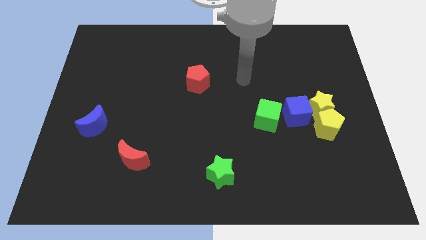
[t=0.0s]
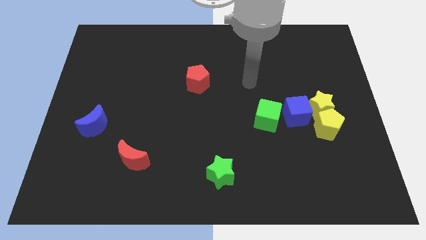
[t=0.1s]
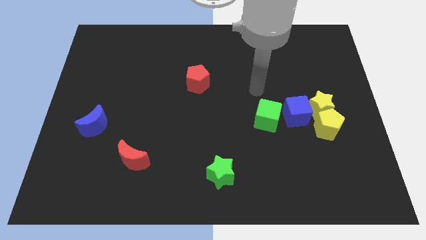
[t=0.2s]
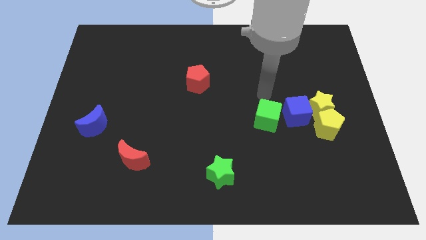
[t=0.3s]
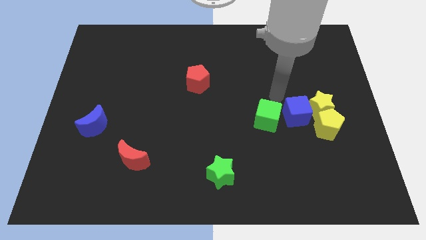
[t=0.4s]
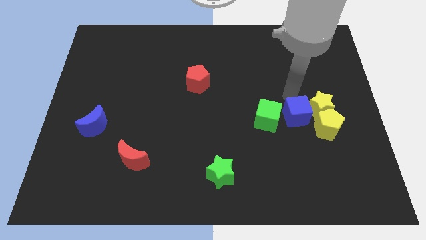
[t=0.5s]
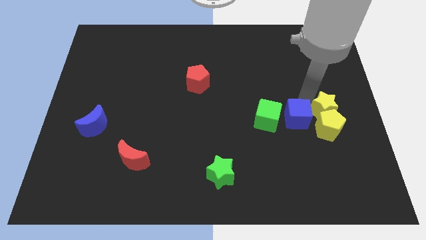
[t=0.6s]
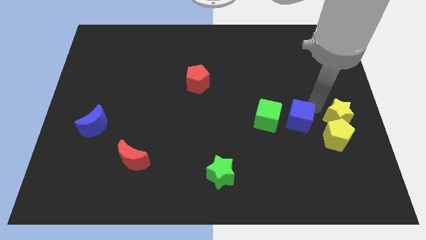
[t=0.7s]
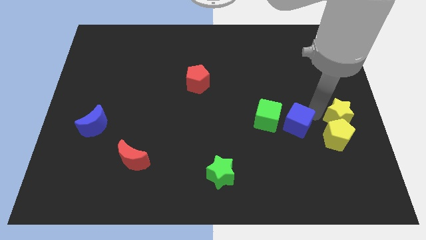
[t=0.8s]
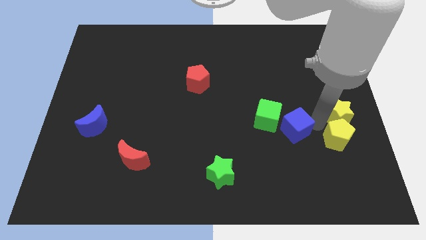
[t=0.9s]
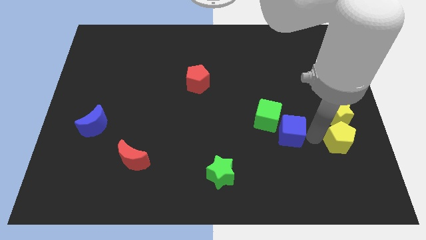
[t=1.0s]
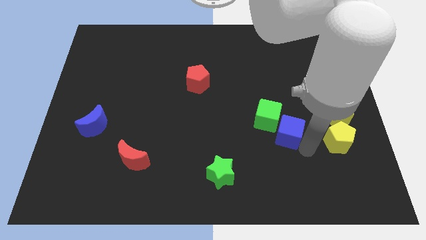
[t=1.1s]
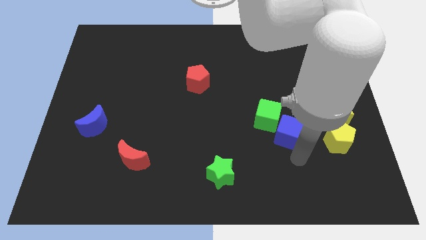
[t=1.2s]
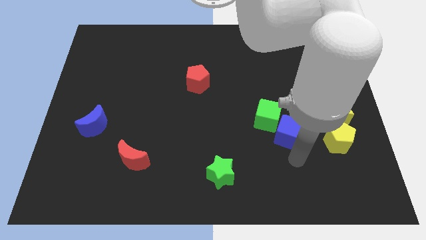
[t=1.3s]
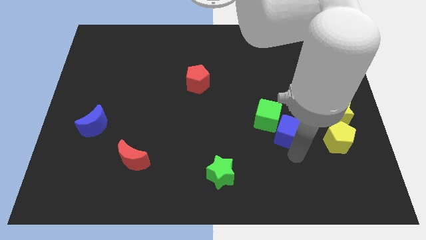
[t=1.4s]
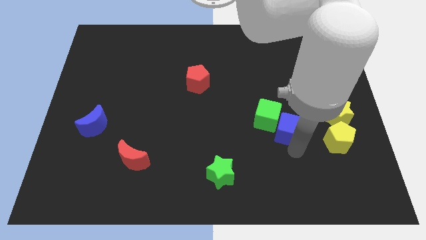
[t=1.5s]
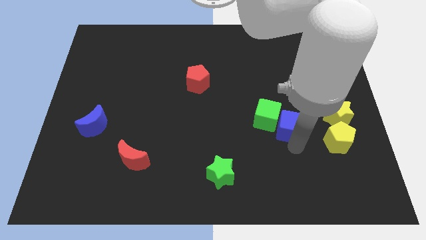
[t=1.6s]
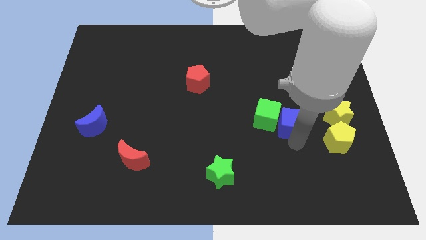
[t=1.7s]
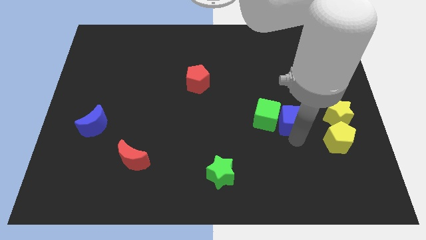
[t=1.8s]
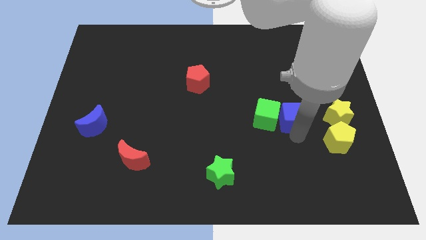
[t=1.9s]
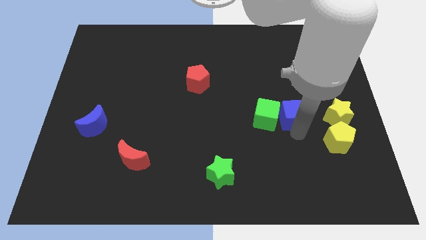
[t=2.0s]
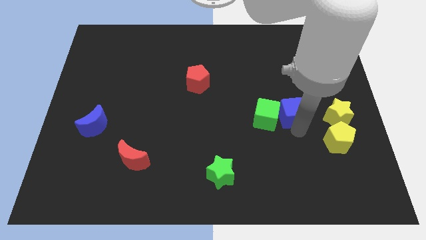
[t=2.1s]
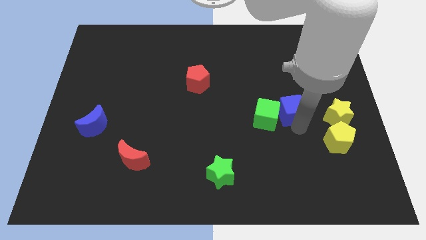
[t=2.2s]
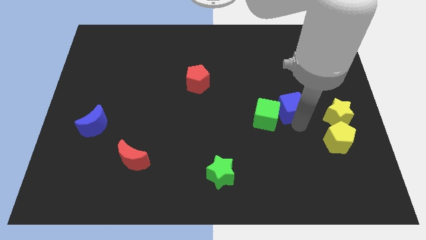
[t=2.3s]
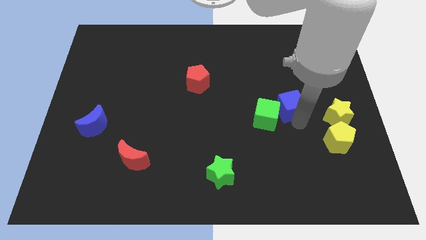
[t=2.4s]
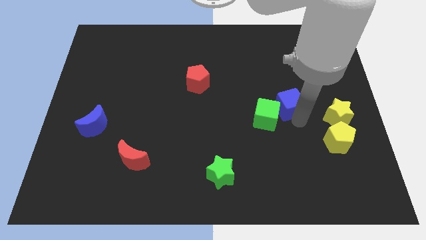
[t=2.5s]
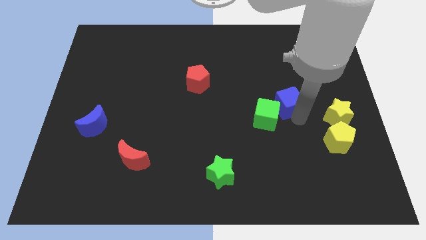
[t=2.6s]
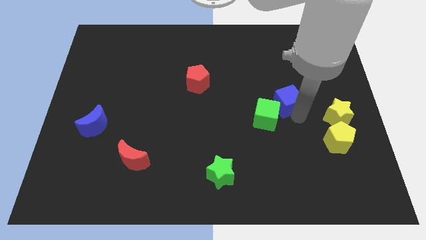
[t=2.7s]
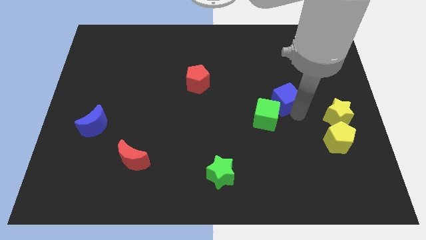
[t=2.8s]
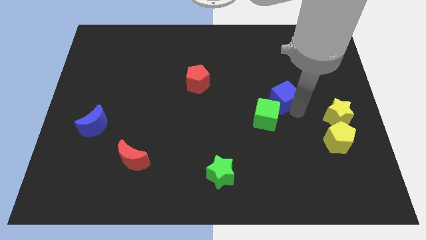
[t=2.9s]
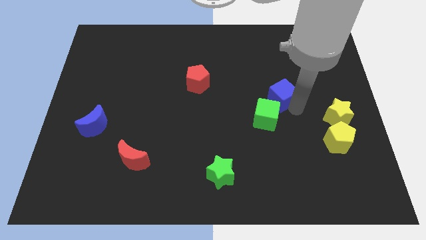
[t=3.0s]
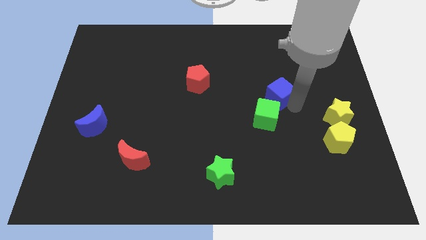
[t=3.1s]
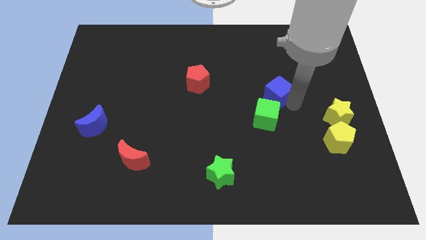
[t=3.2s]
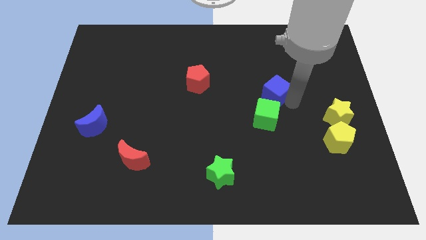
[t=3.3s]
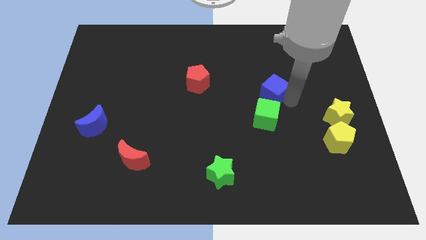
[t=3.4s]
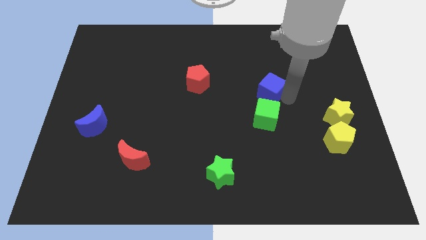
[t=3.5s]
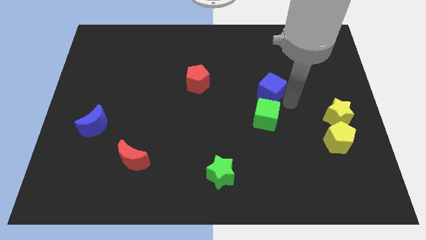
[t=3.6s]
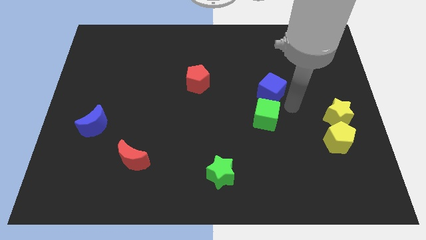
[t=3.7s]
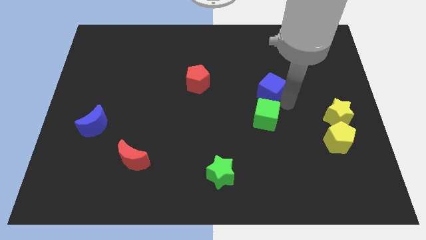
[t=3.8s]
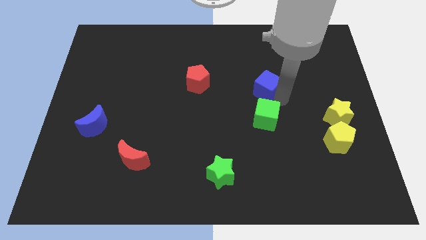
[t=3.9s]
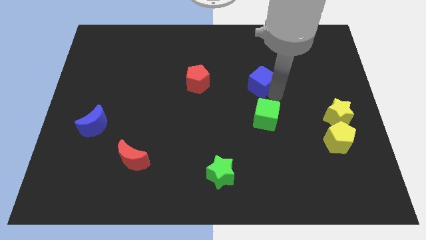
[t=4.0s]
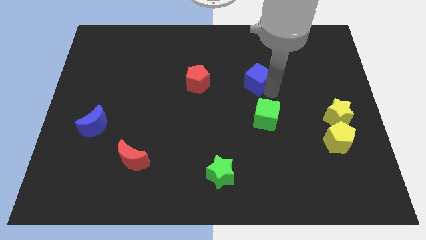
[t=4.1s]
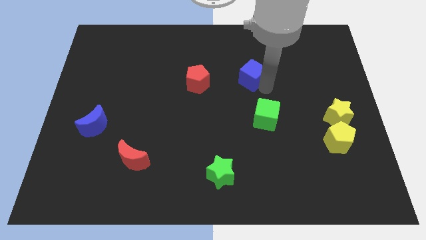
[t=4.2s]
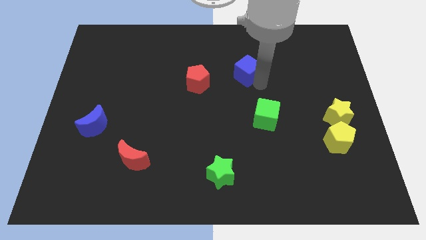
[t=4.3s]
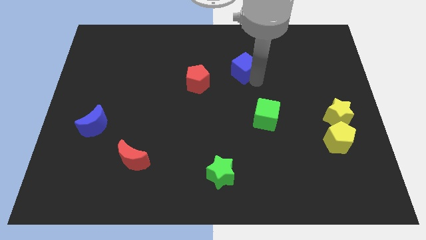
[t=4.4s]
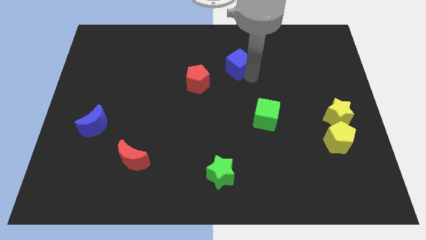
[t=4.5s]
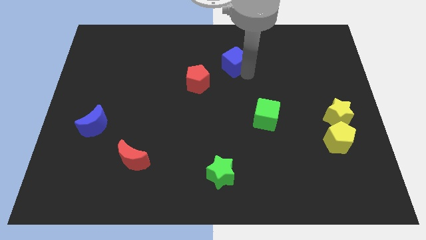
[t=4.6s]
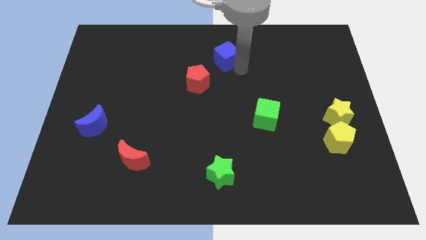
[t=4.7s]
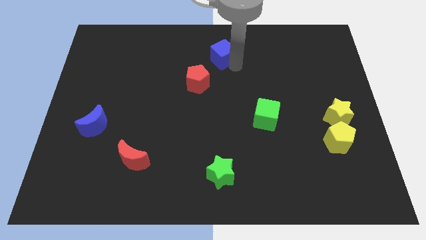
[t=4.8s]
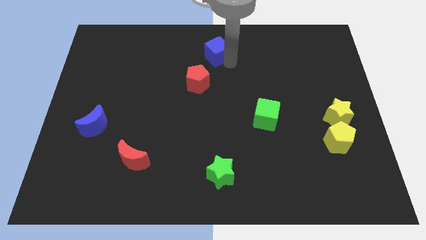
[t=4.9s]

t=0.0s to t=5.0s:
slide the blue cube to the top

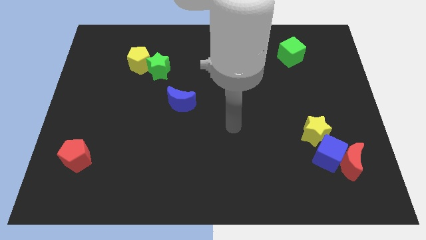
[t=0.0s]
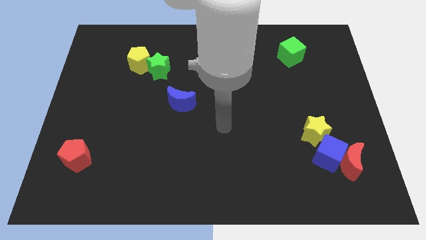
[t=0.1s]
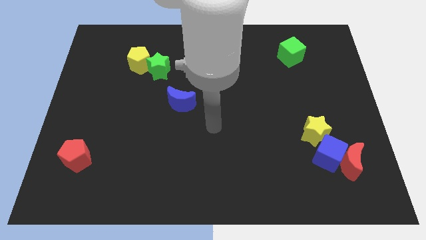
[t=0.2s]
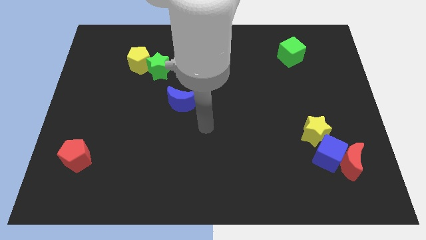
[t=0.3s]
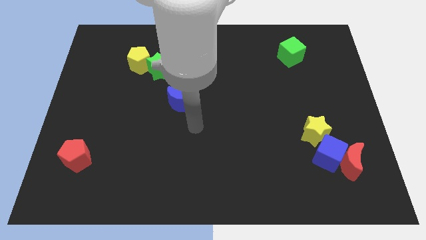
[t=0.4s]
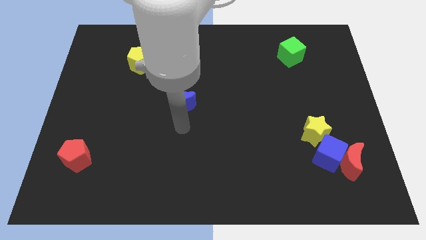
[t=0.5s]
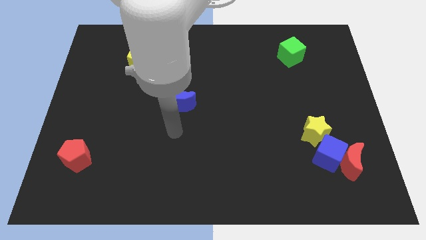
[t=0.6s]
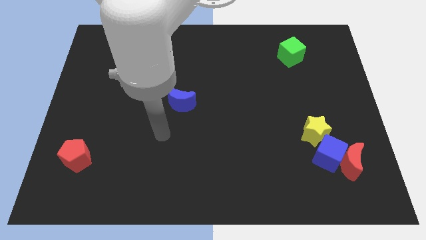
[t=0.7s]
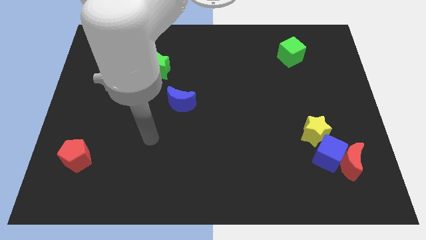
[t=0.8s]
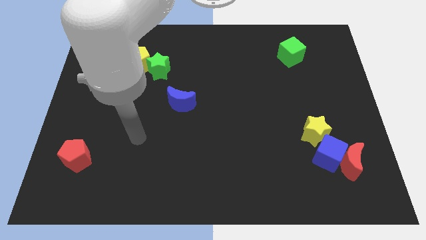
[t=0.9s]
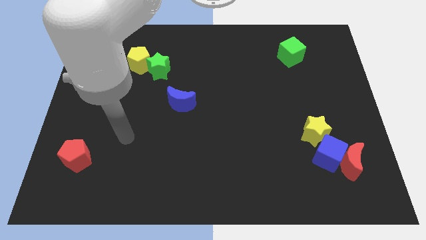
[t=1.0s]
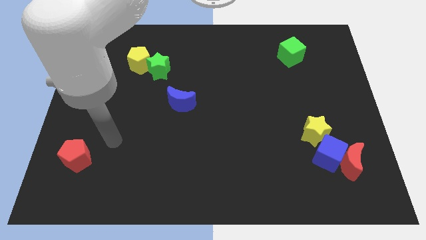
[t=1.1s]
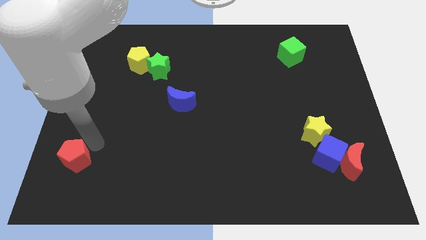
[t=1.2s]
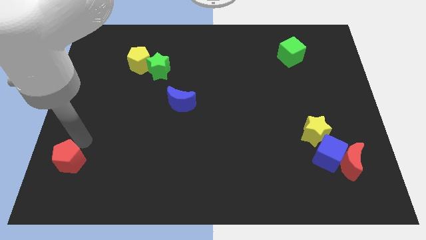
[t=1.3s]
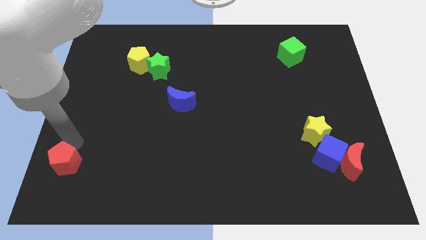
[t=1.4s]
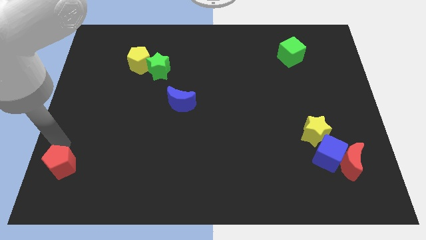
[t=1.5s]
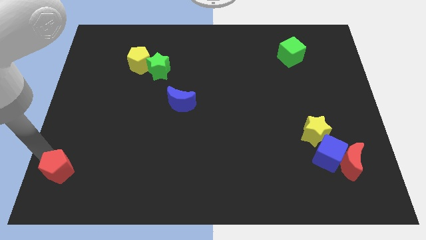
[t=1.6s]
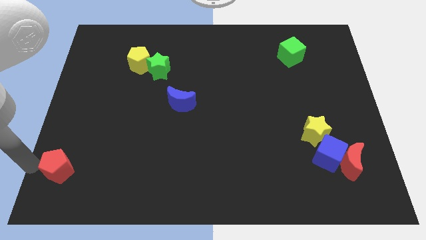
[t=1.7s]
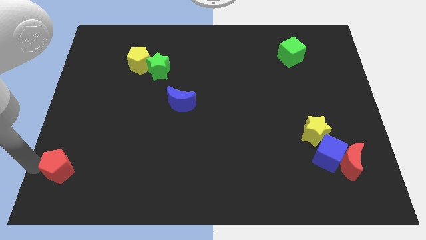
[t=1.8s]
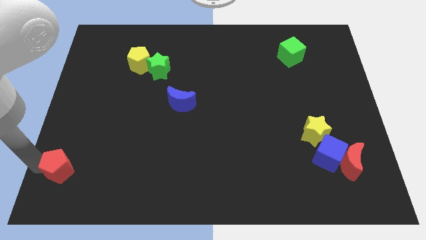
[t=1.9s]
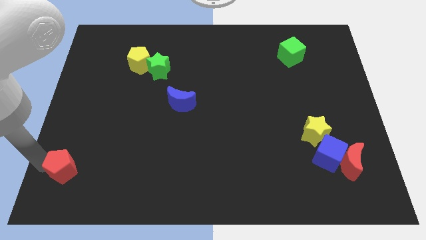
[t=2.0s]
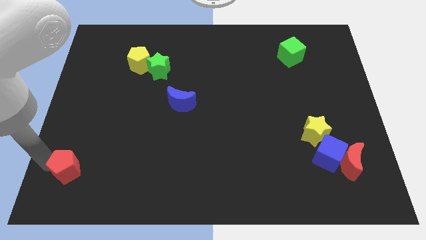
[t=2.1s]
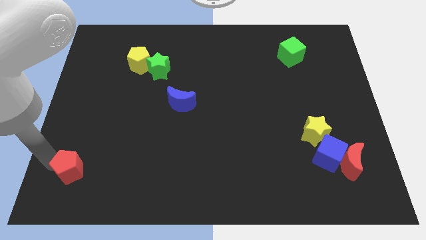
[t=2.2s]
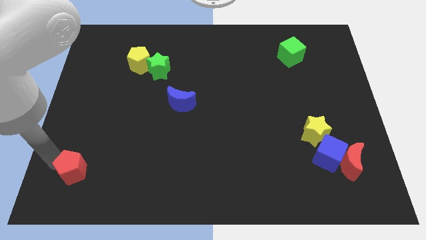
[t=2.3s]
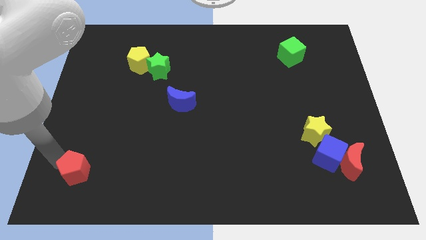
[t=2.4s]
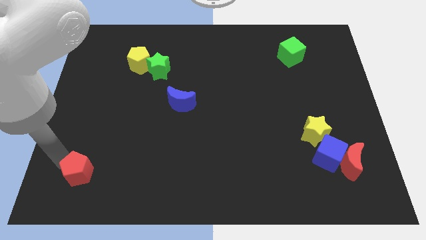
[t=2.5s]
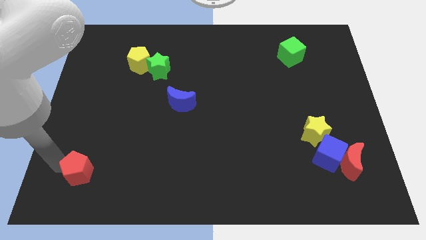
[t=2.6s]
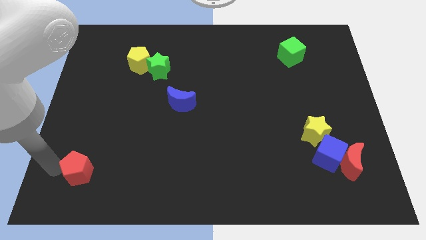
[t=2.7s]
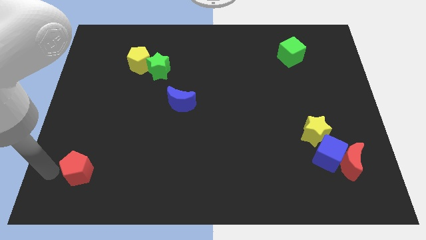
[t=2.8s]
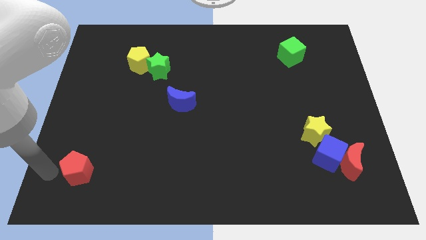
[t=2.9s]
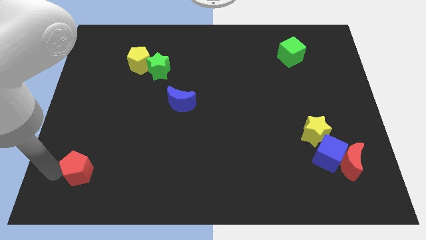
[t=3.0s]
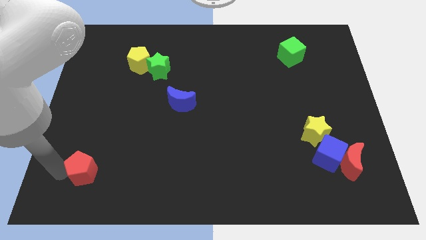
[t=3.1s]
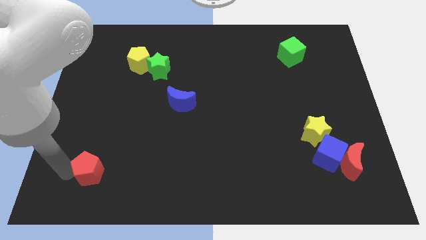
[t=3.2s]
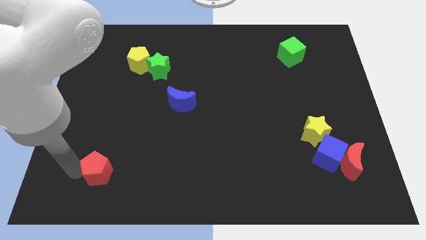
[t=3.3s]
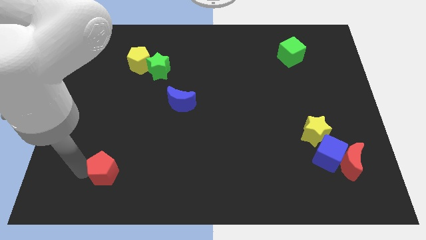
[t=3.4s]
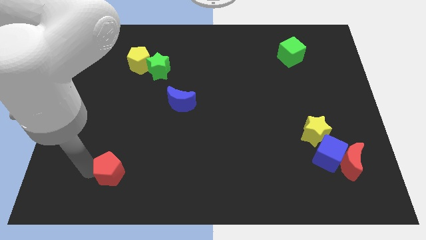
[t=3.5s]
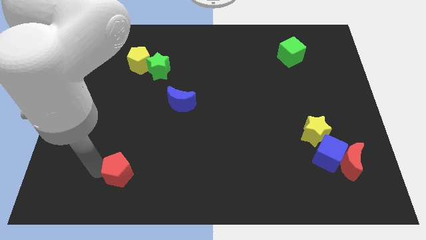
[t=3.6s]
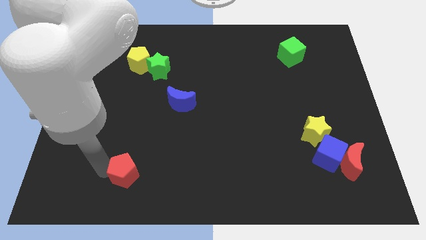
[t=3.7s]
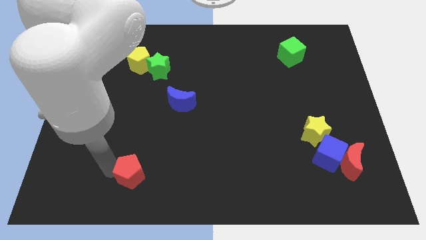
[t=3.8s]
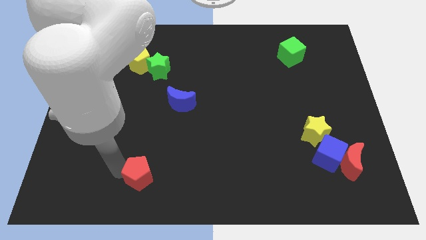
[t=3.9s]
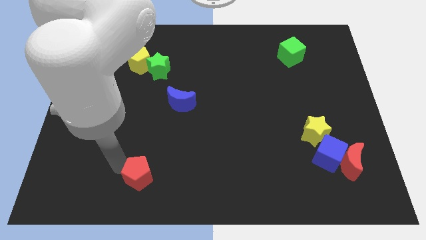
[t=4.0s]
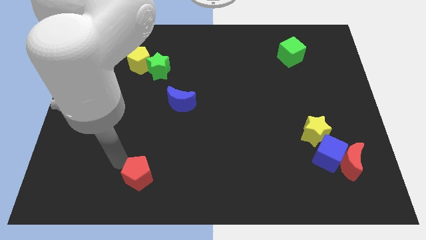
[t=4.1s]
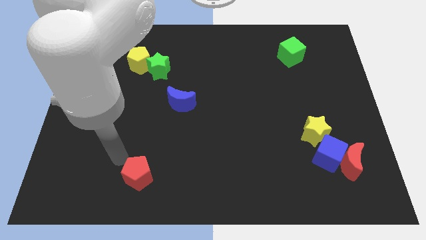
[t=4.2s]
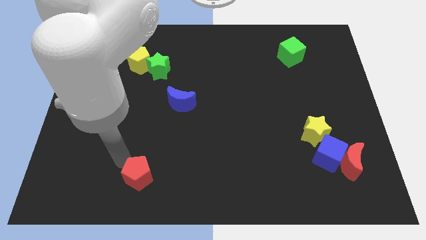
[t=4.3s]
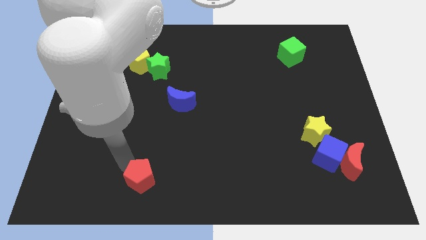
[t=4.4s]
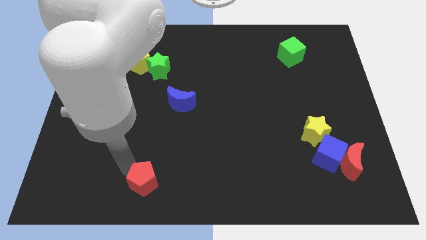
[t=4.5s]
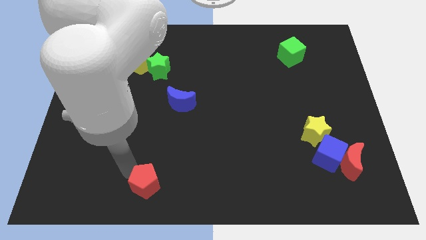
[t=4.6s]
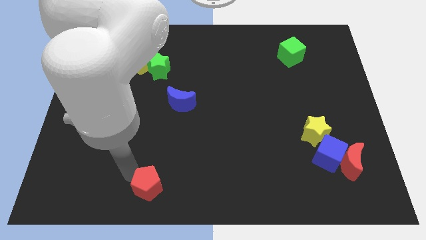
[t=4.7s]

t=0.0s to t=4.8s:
put the red pentagon to the bottom side
